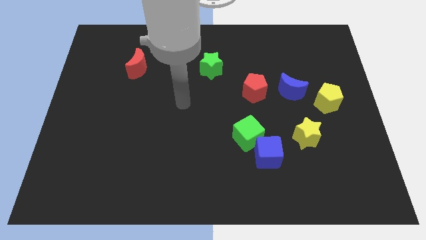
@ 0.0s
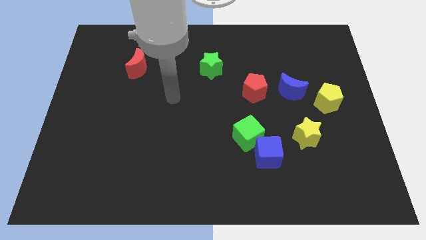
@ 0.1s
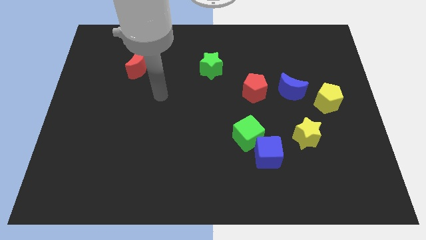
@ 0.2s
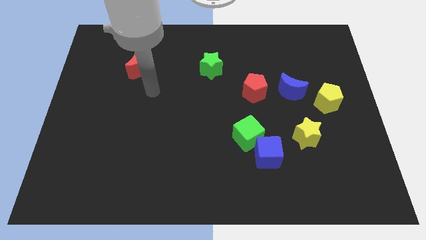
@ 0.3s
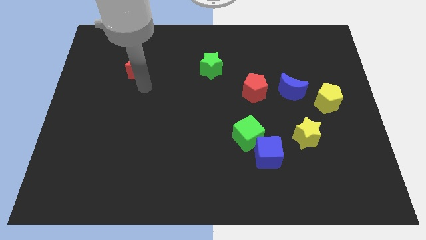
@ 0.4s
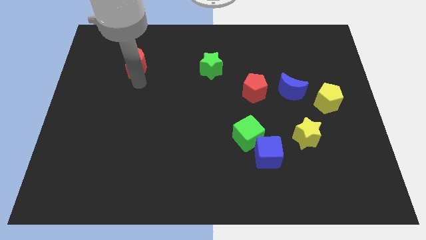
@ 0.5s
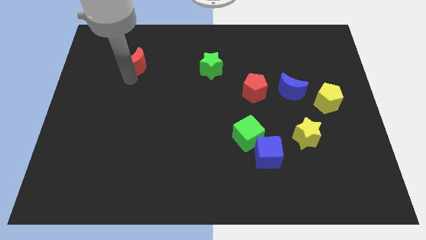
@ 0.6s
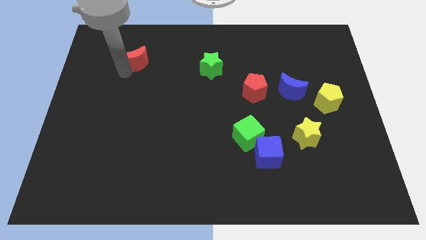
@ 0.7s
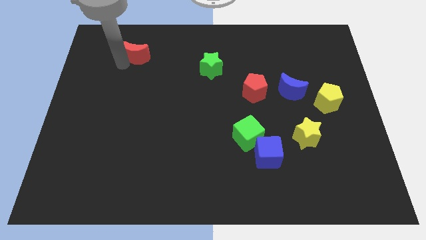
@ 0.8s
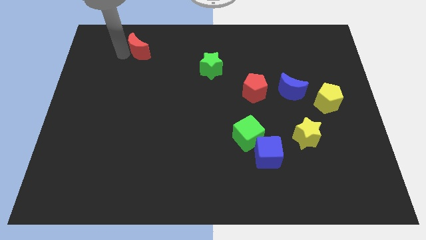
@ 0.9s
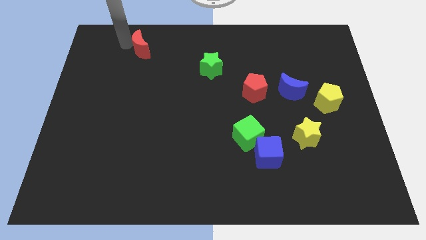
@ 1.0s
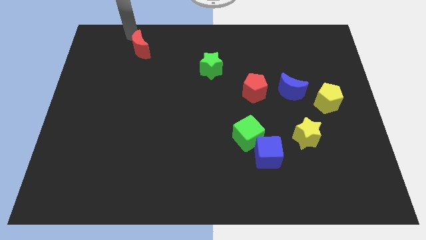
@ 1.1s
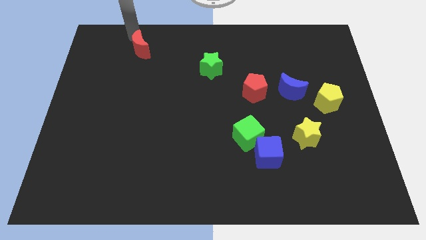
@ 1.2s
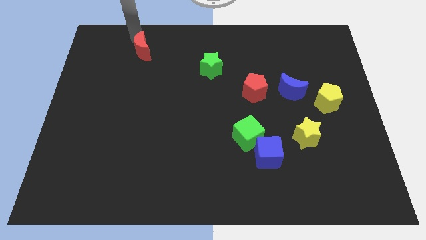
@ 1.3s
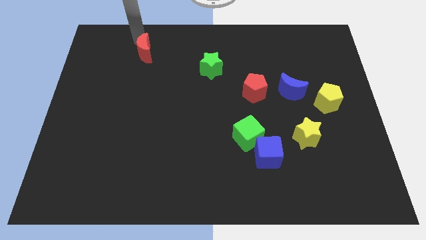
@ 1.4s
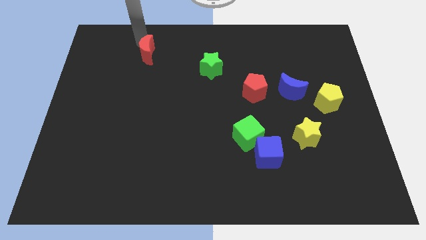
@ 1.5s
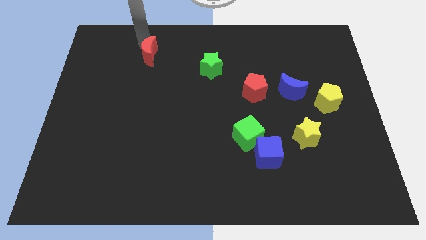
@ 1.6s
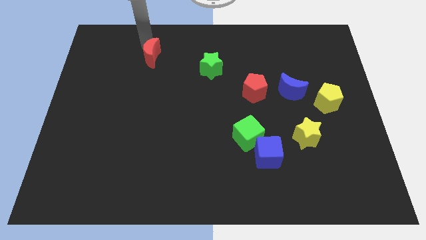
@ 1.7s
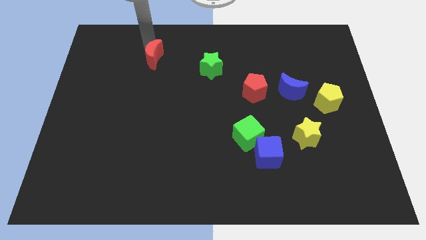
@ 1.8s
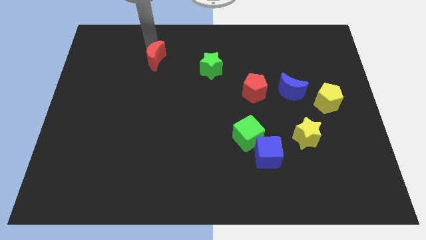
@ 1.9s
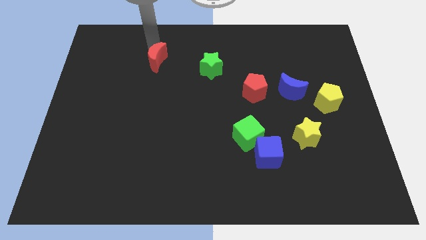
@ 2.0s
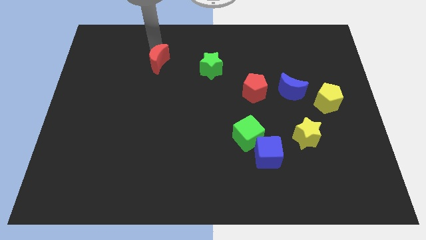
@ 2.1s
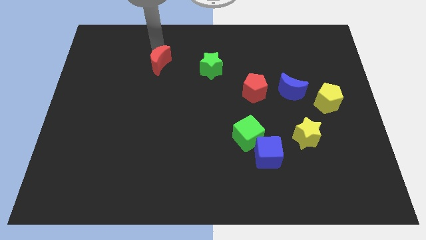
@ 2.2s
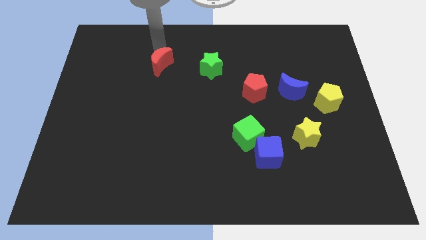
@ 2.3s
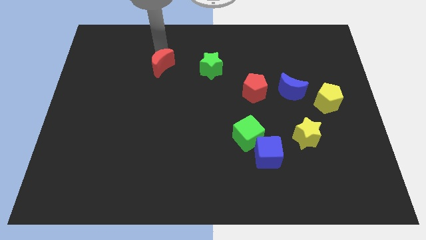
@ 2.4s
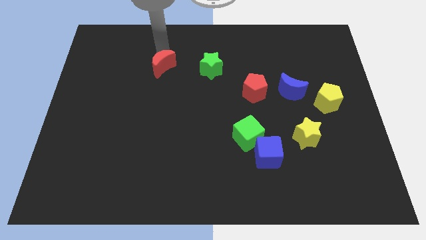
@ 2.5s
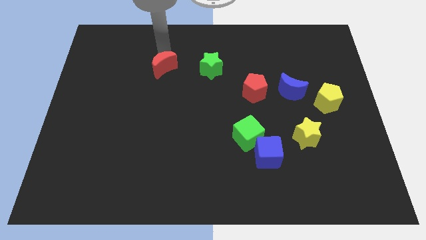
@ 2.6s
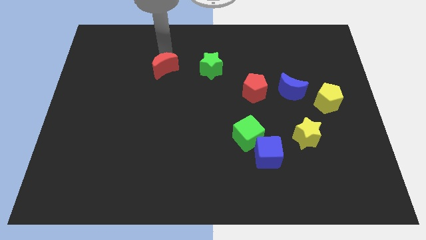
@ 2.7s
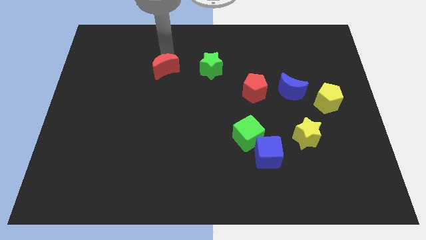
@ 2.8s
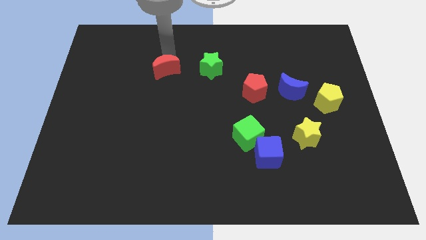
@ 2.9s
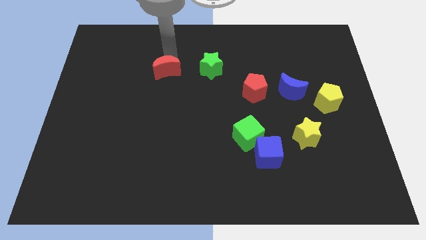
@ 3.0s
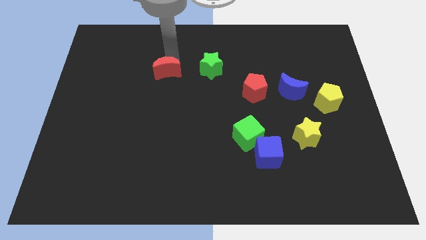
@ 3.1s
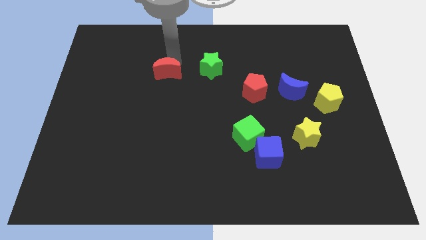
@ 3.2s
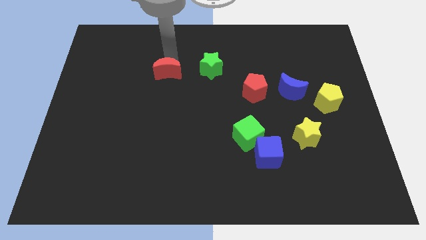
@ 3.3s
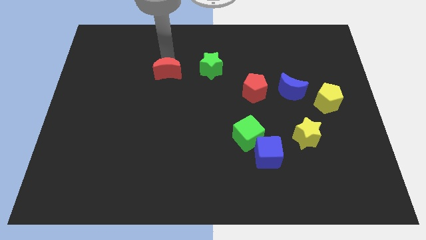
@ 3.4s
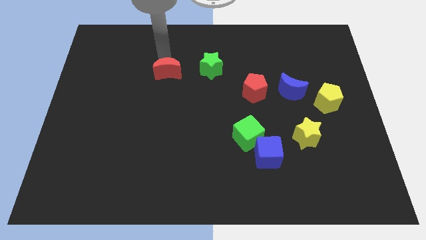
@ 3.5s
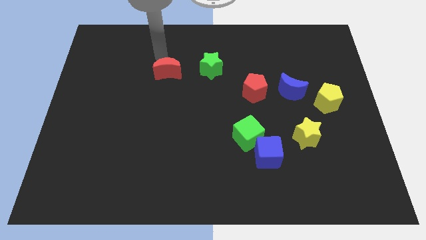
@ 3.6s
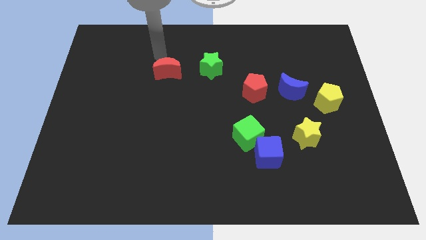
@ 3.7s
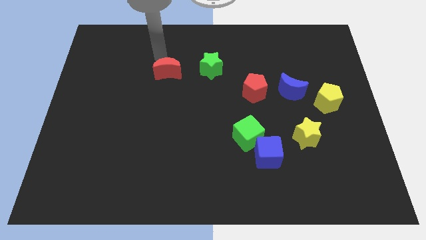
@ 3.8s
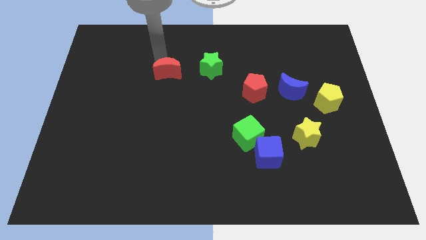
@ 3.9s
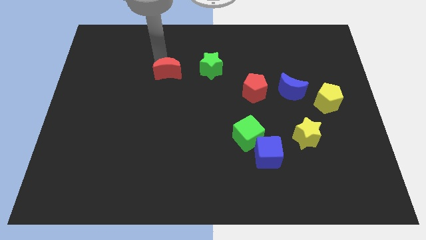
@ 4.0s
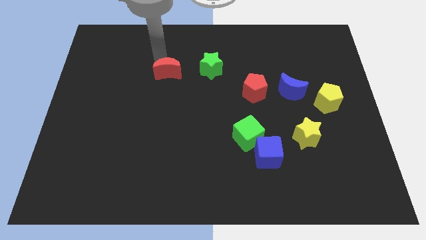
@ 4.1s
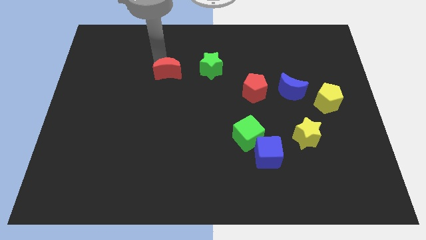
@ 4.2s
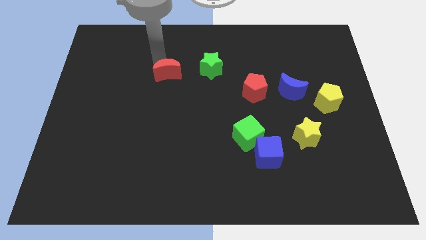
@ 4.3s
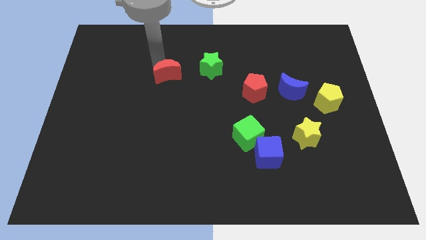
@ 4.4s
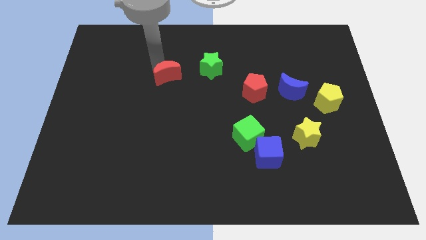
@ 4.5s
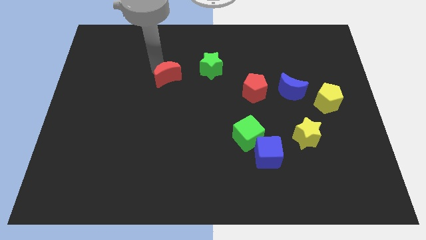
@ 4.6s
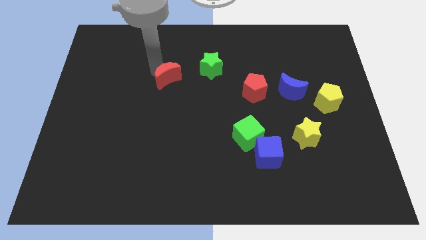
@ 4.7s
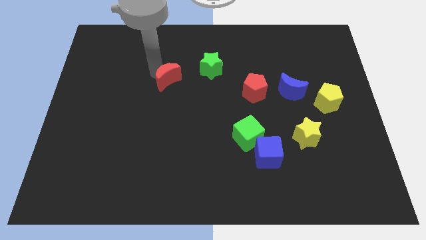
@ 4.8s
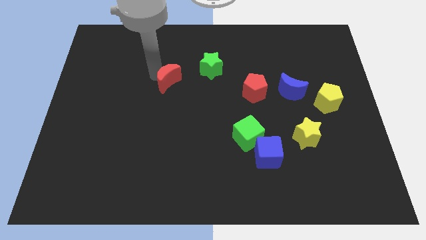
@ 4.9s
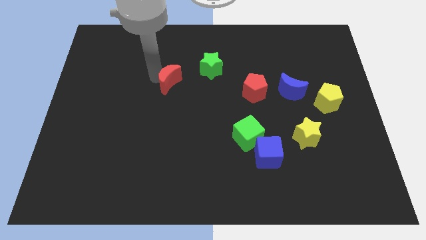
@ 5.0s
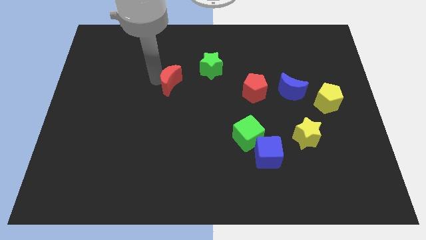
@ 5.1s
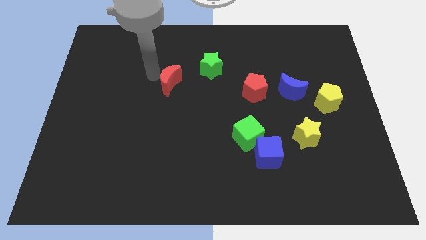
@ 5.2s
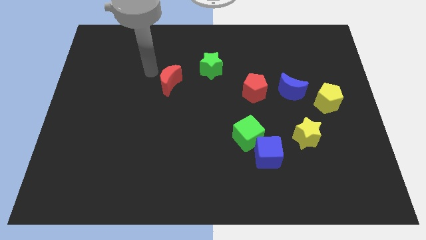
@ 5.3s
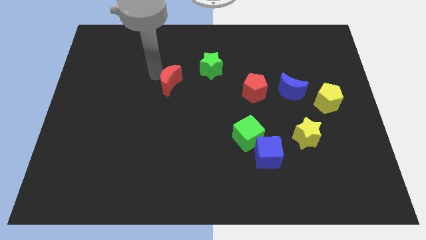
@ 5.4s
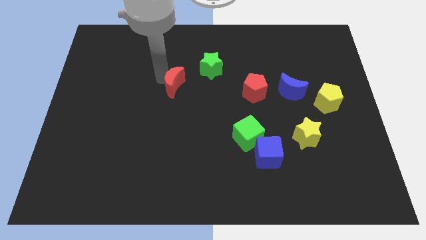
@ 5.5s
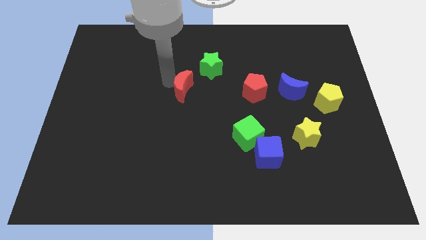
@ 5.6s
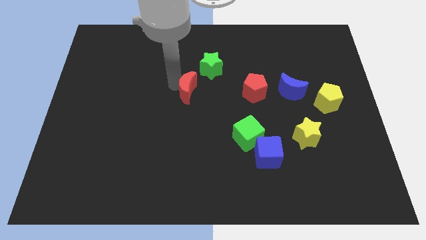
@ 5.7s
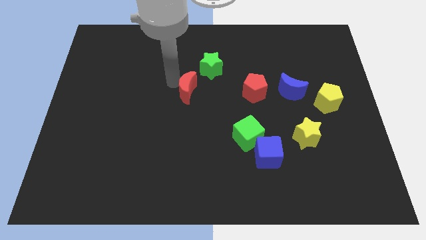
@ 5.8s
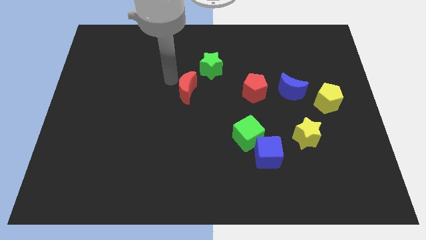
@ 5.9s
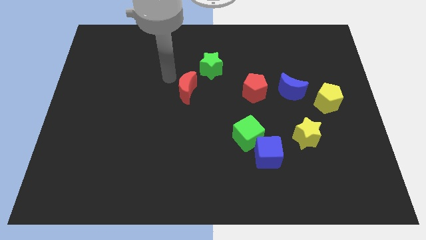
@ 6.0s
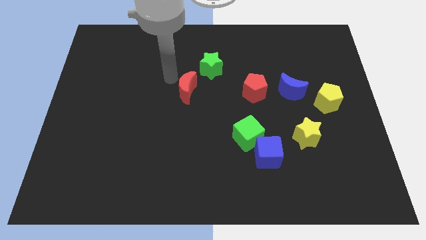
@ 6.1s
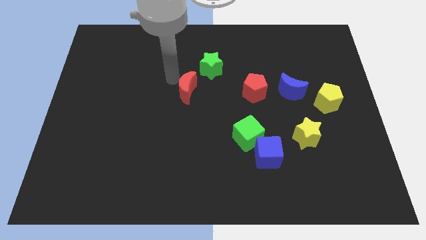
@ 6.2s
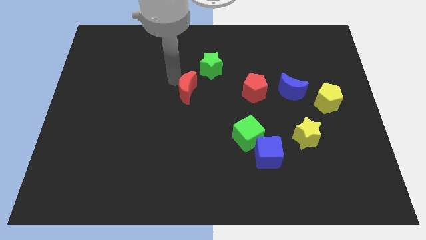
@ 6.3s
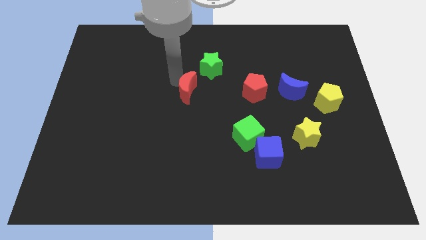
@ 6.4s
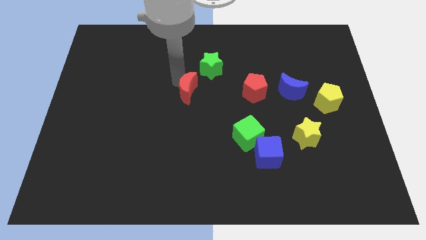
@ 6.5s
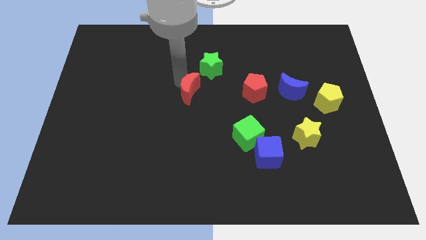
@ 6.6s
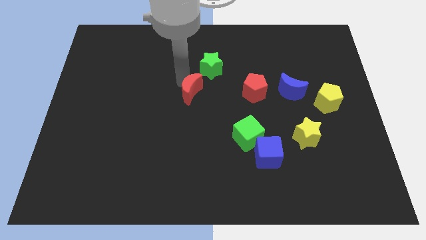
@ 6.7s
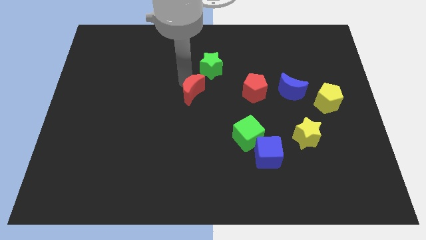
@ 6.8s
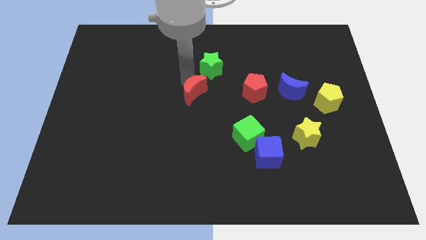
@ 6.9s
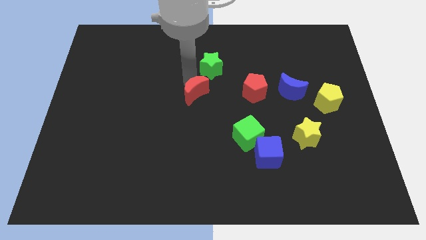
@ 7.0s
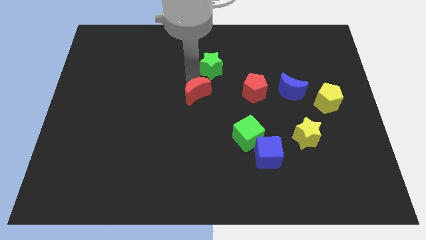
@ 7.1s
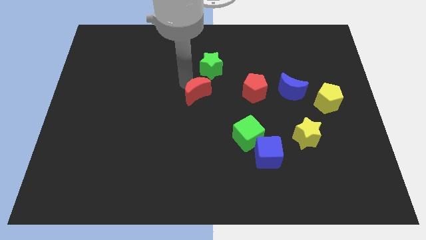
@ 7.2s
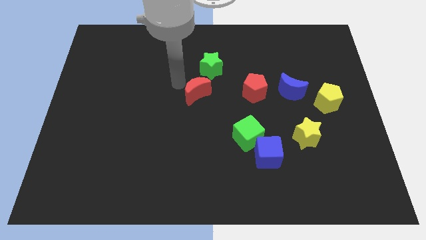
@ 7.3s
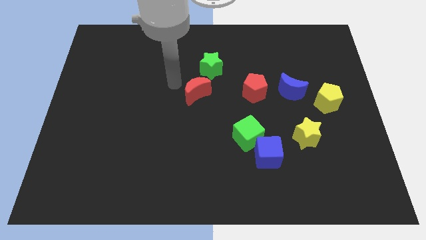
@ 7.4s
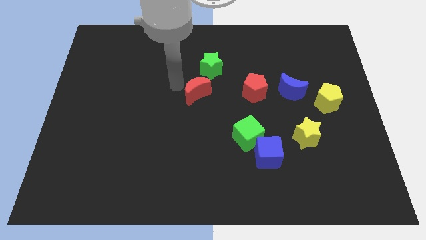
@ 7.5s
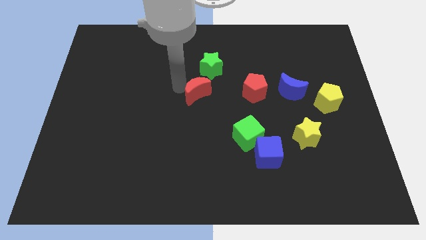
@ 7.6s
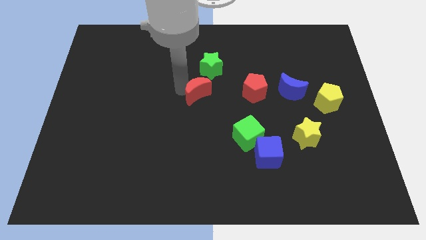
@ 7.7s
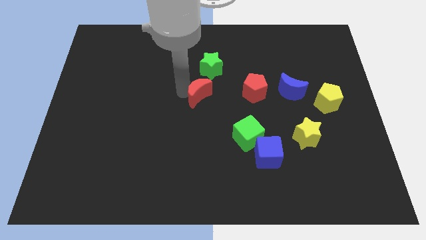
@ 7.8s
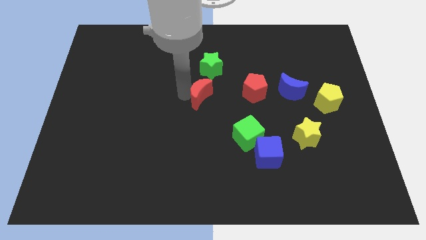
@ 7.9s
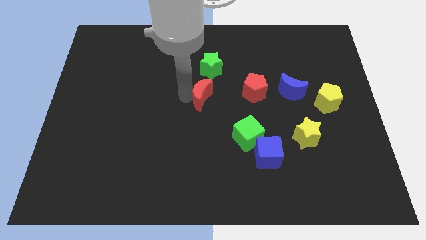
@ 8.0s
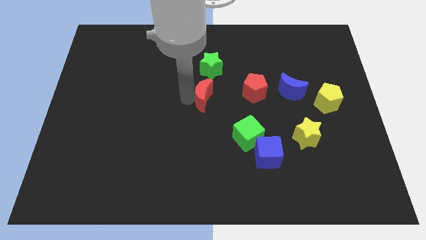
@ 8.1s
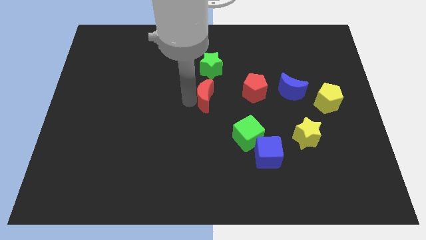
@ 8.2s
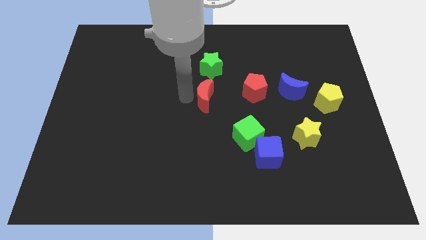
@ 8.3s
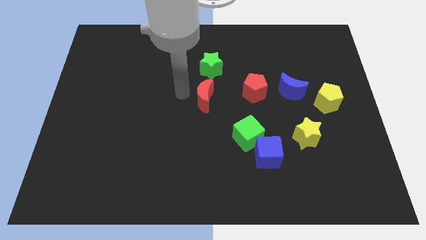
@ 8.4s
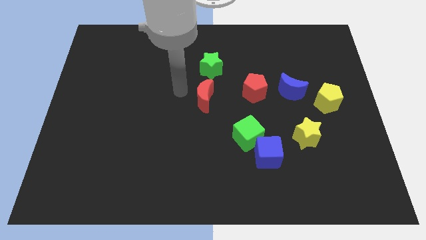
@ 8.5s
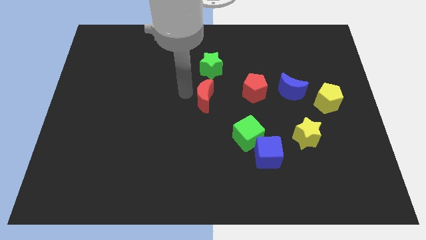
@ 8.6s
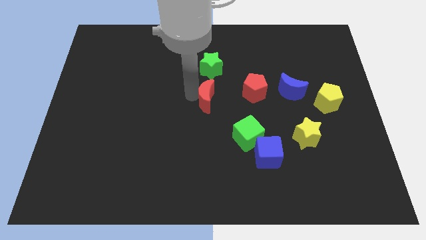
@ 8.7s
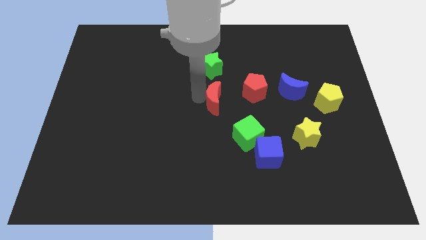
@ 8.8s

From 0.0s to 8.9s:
move the red moon to the bottom left side of the red pentagon
